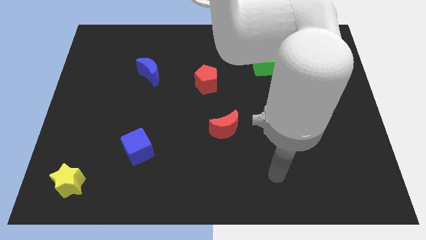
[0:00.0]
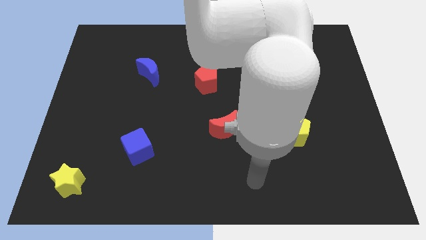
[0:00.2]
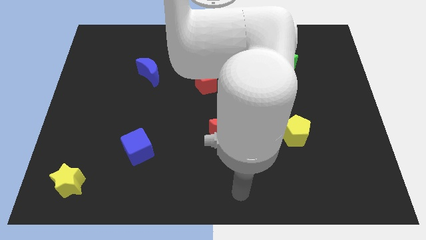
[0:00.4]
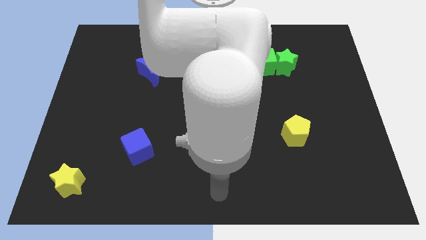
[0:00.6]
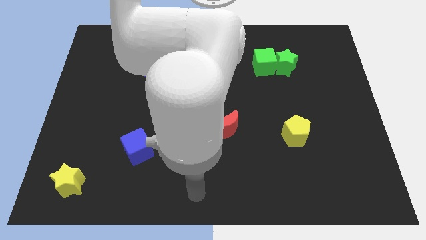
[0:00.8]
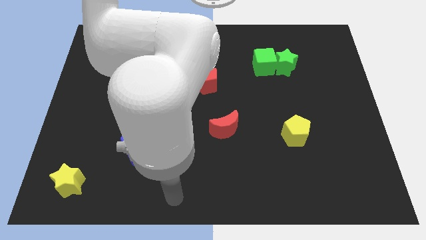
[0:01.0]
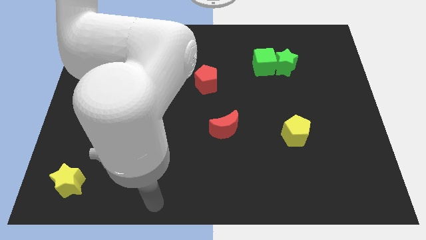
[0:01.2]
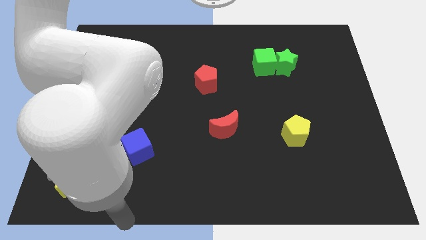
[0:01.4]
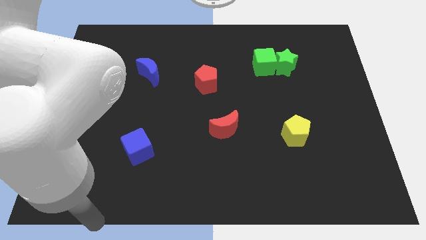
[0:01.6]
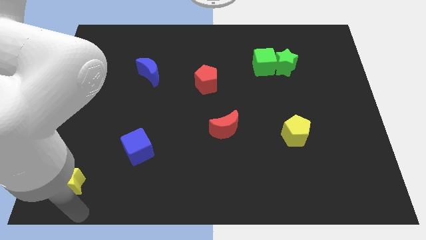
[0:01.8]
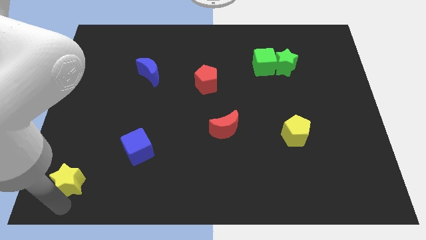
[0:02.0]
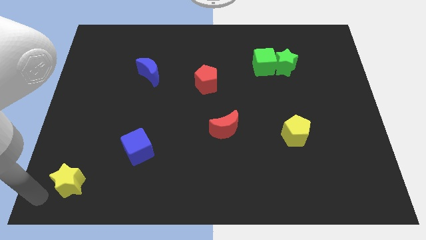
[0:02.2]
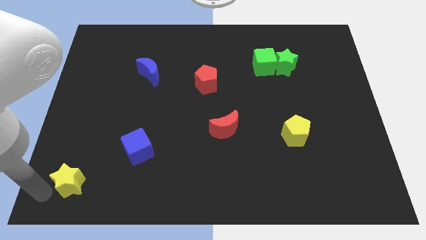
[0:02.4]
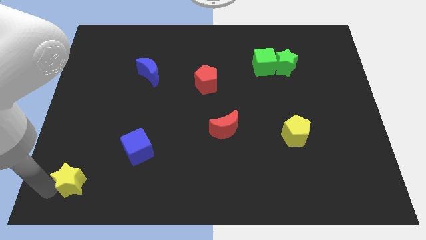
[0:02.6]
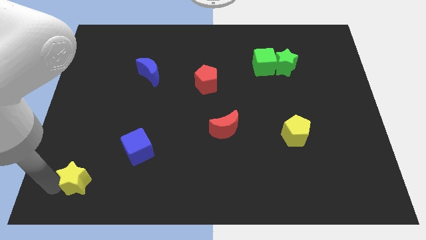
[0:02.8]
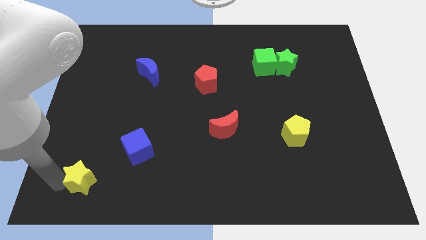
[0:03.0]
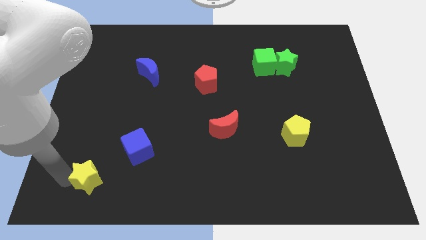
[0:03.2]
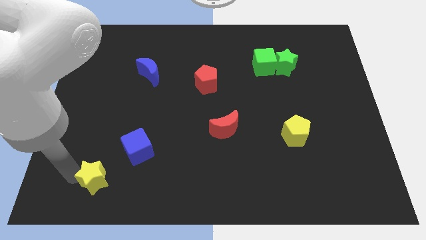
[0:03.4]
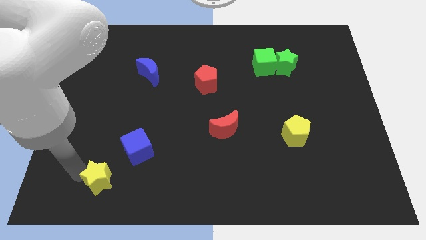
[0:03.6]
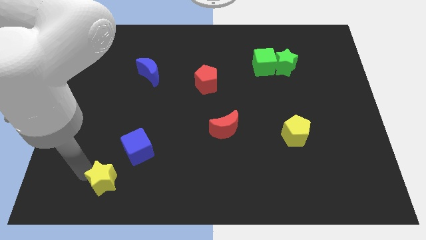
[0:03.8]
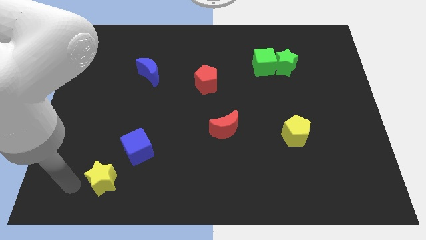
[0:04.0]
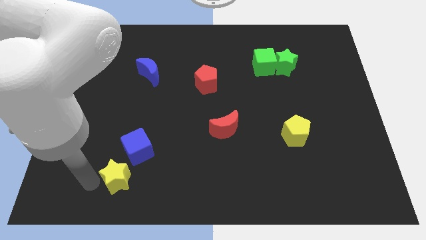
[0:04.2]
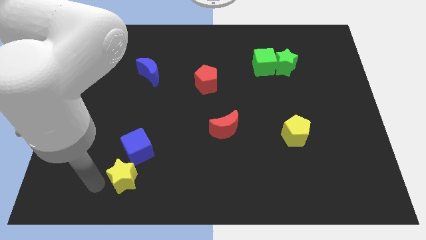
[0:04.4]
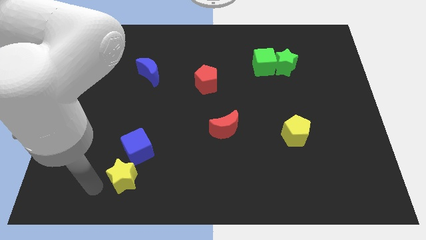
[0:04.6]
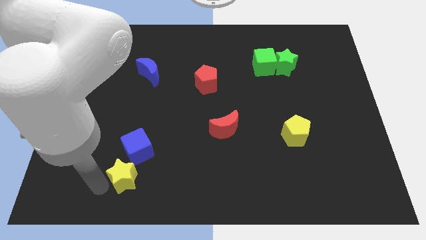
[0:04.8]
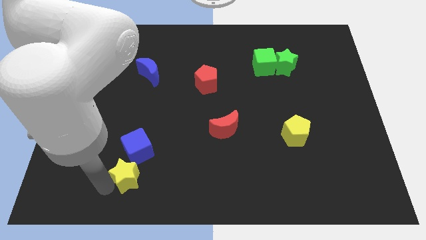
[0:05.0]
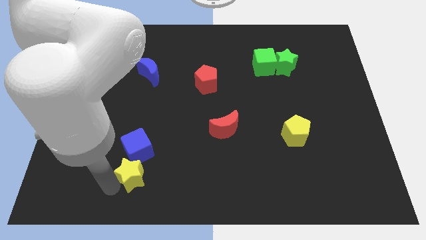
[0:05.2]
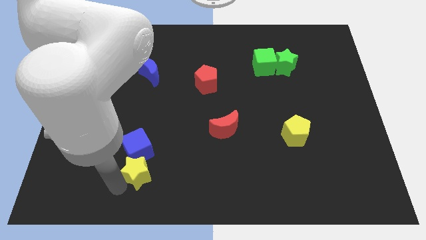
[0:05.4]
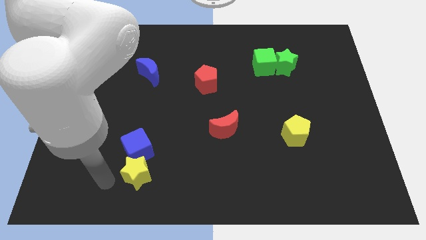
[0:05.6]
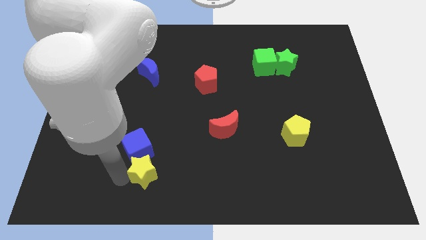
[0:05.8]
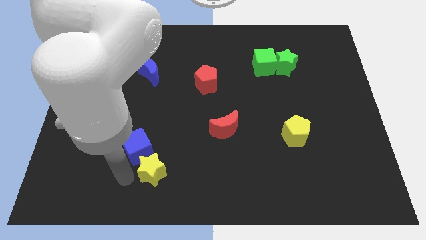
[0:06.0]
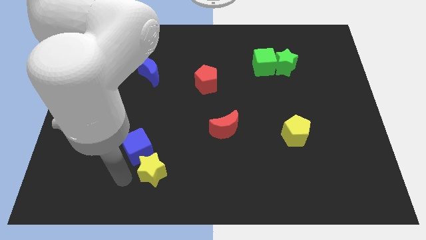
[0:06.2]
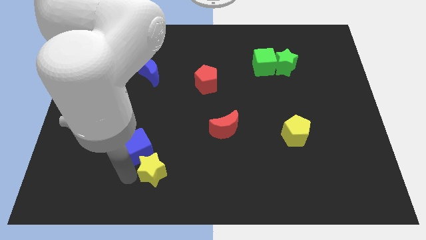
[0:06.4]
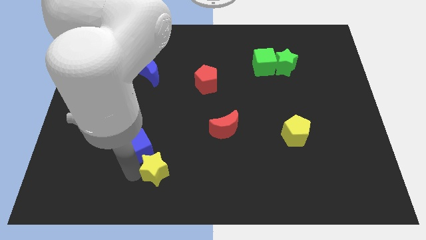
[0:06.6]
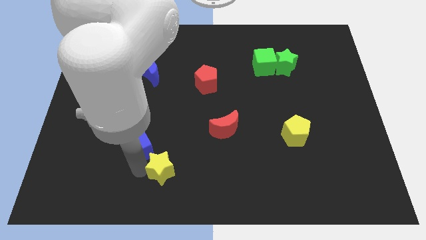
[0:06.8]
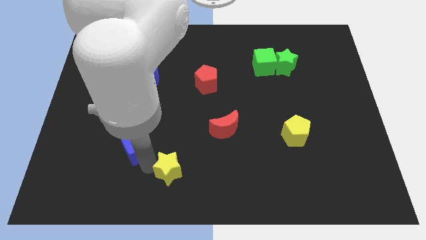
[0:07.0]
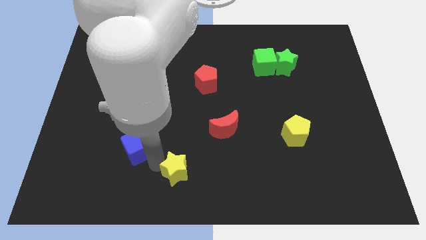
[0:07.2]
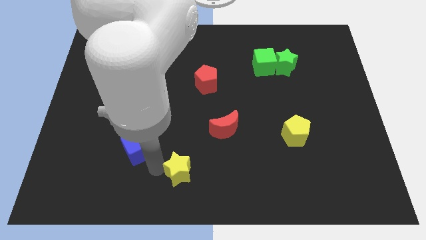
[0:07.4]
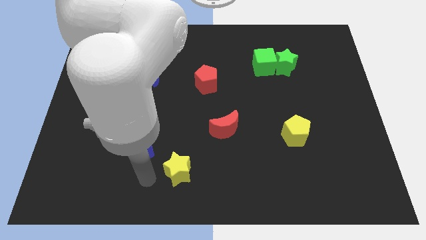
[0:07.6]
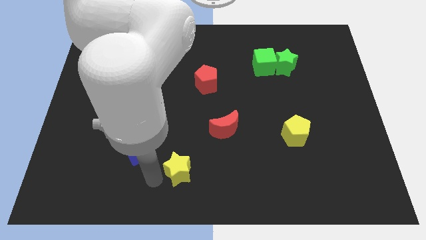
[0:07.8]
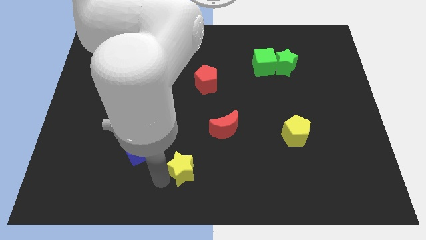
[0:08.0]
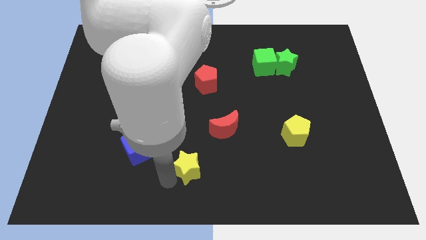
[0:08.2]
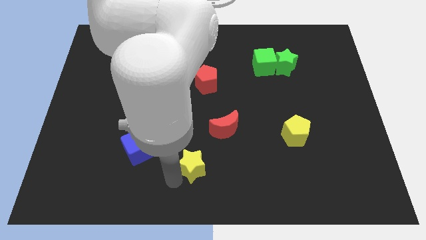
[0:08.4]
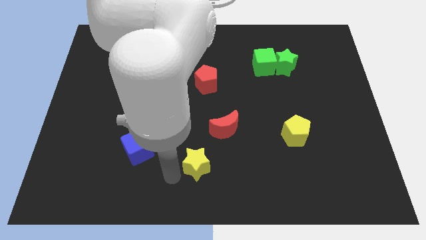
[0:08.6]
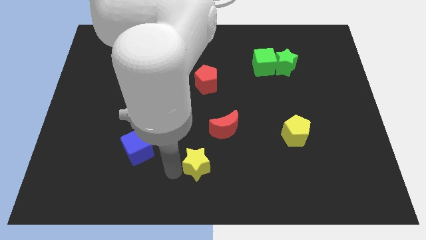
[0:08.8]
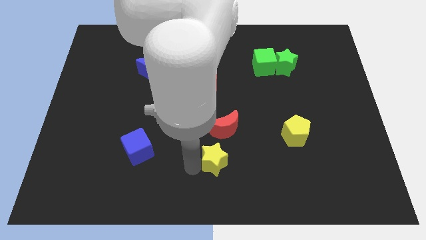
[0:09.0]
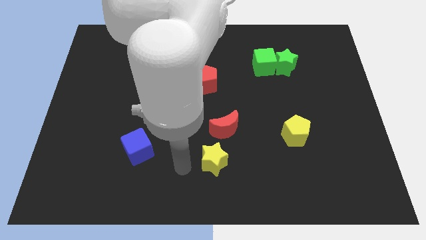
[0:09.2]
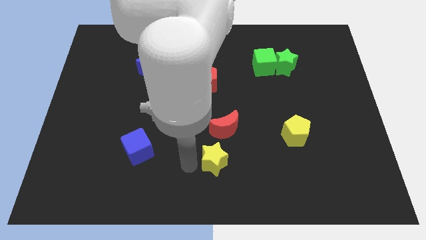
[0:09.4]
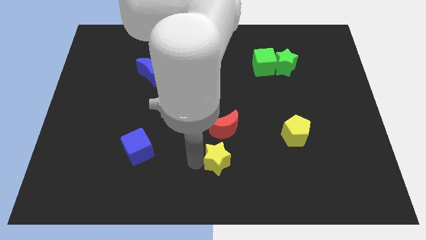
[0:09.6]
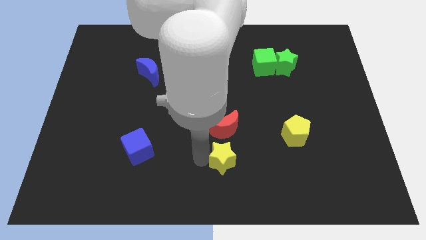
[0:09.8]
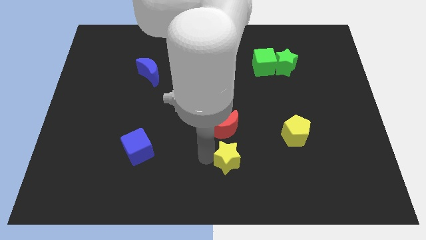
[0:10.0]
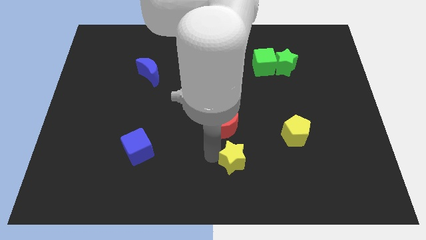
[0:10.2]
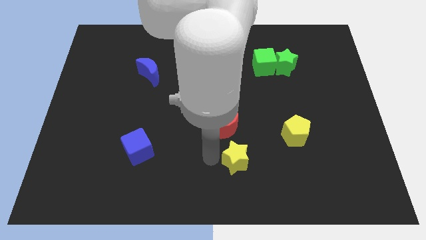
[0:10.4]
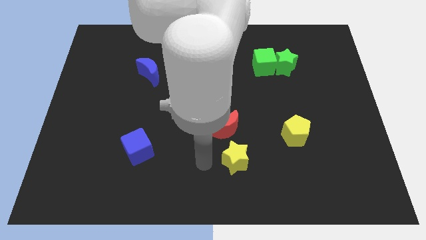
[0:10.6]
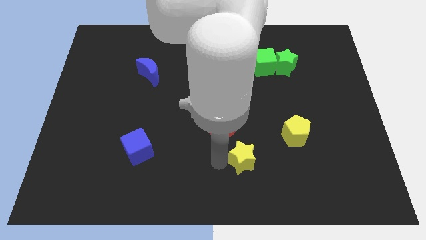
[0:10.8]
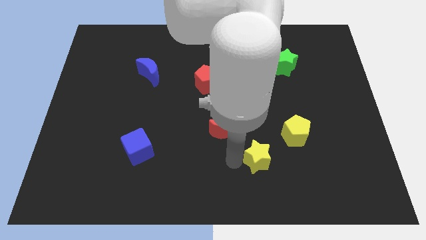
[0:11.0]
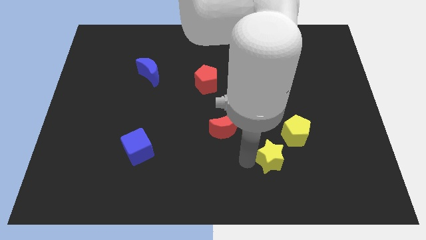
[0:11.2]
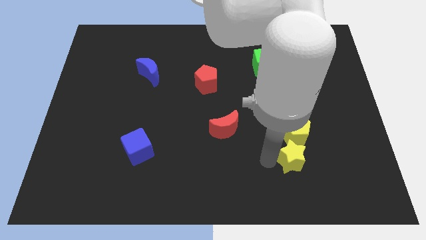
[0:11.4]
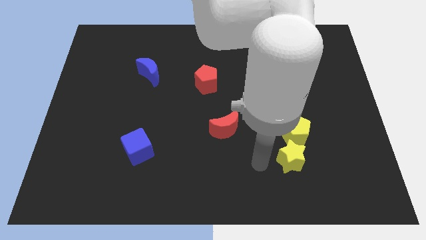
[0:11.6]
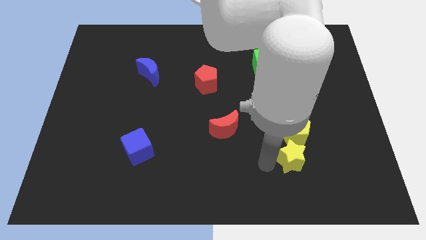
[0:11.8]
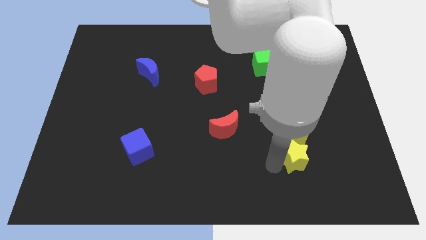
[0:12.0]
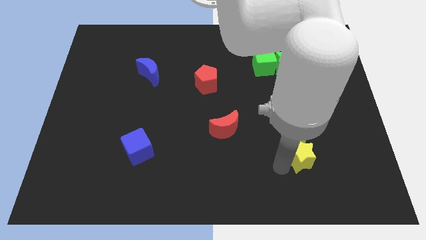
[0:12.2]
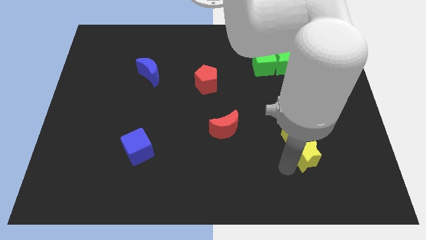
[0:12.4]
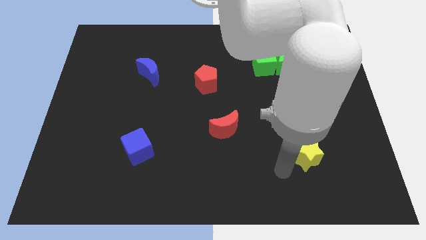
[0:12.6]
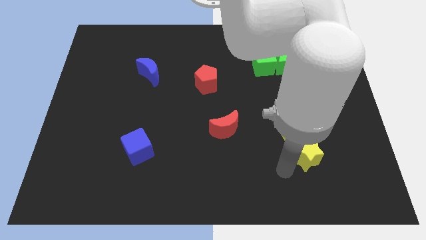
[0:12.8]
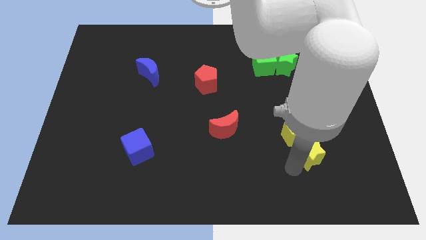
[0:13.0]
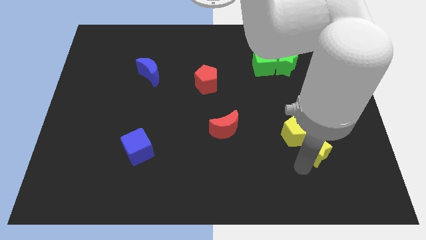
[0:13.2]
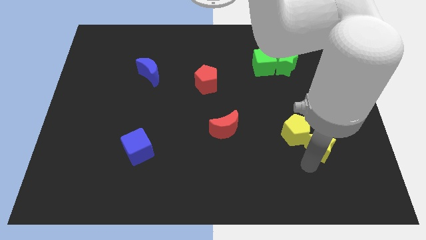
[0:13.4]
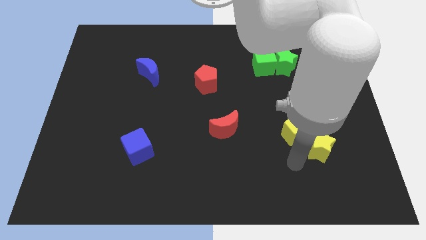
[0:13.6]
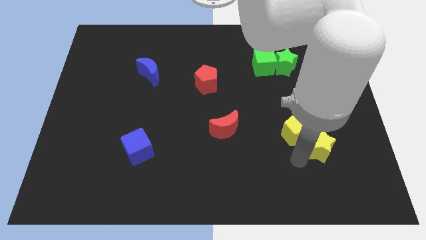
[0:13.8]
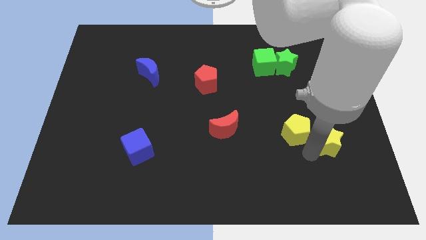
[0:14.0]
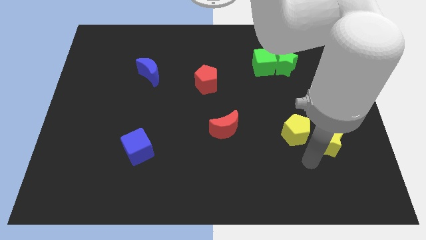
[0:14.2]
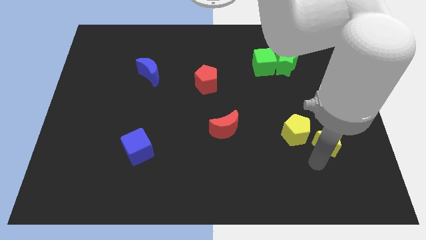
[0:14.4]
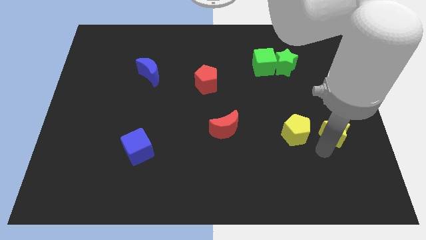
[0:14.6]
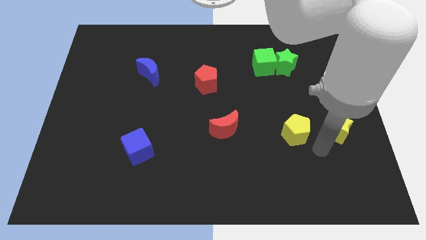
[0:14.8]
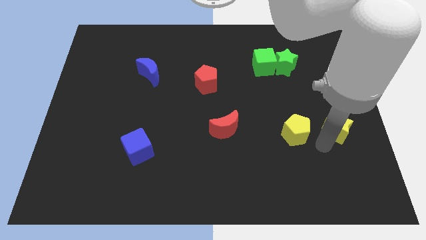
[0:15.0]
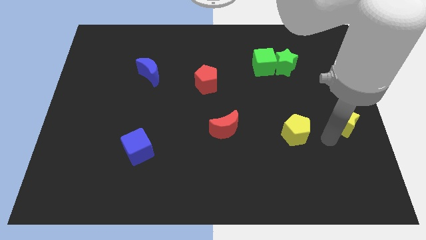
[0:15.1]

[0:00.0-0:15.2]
put the yellow star to the right side
